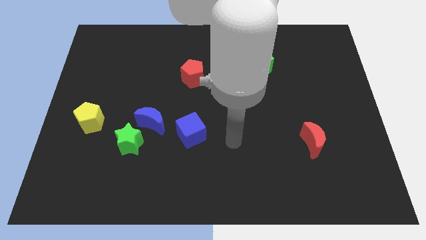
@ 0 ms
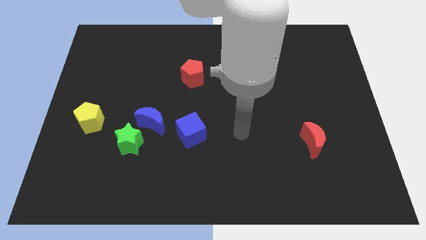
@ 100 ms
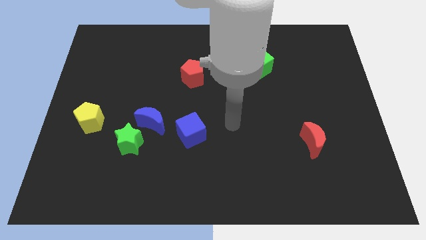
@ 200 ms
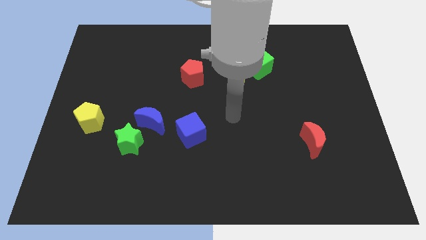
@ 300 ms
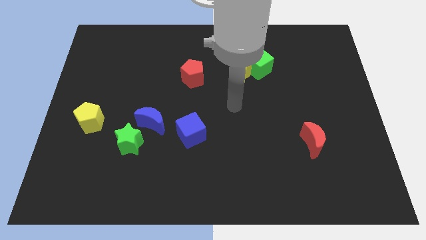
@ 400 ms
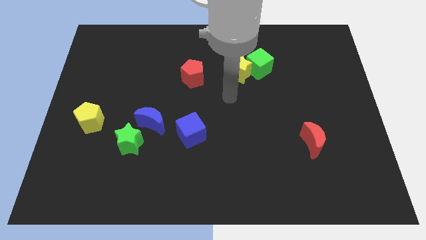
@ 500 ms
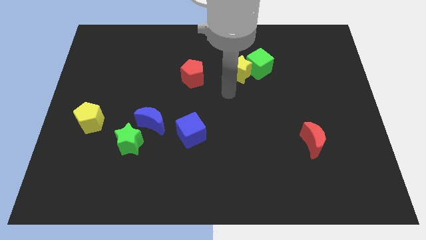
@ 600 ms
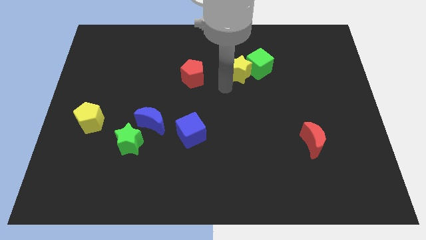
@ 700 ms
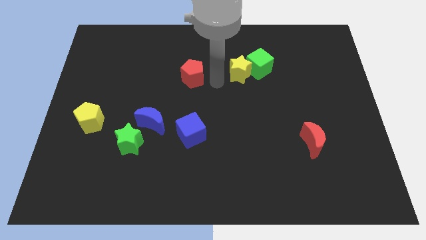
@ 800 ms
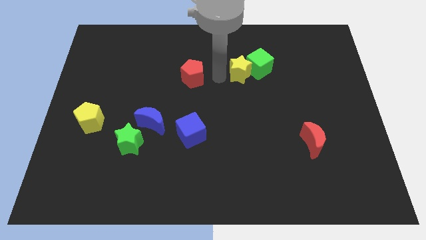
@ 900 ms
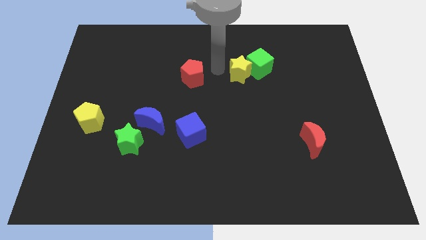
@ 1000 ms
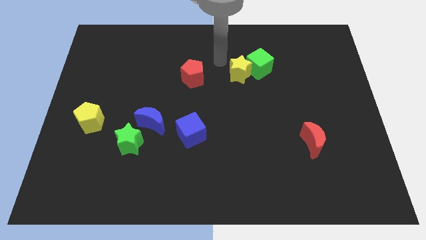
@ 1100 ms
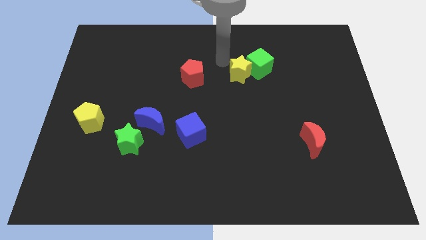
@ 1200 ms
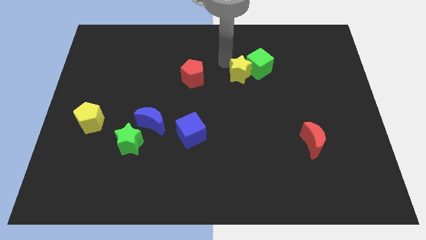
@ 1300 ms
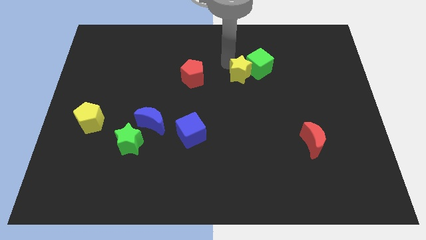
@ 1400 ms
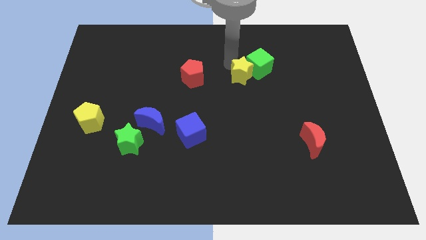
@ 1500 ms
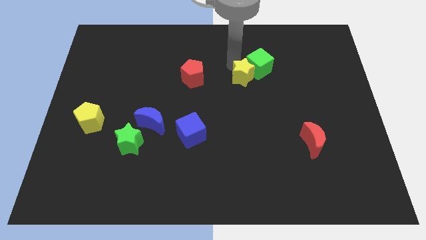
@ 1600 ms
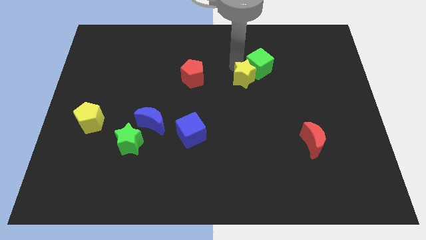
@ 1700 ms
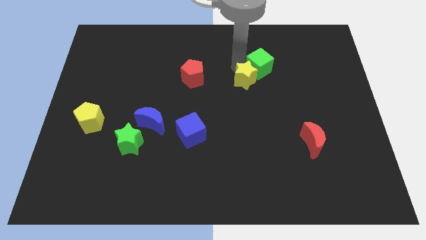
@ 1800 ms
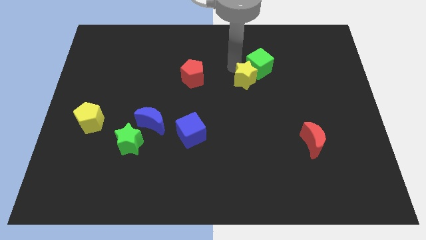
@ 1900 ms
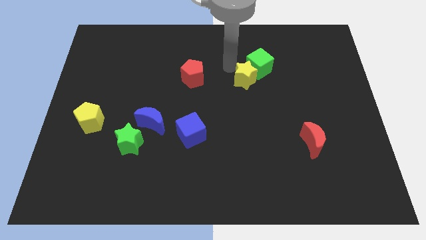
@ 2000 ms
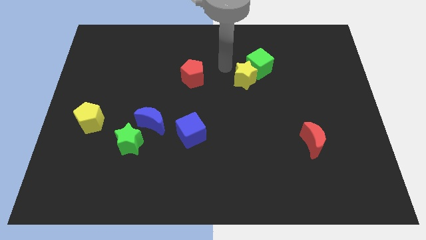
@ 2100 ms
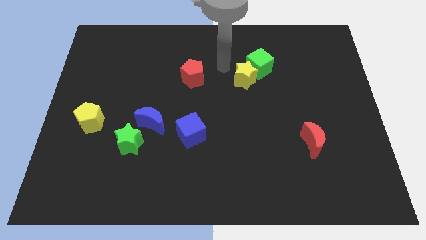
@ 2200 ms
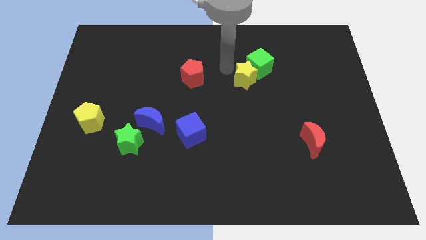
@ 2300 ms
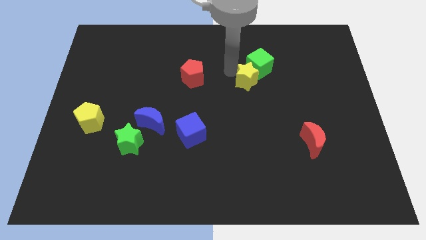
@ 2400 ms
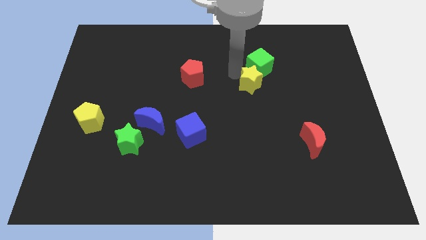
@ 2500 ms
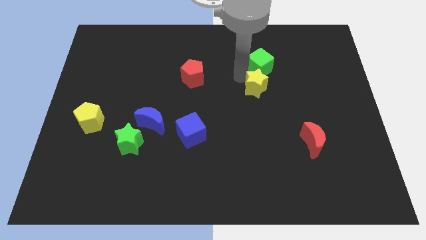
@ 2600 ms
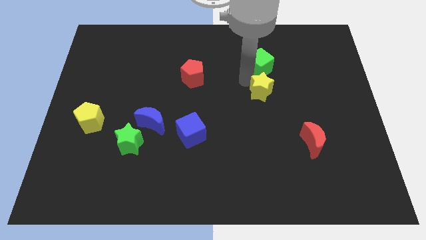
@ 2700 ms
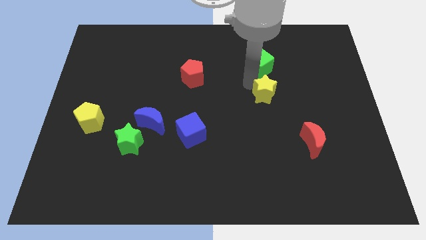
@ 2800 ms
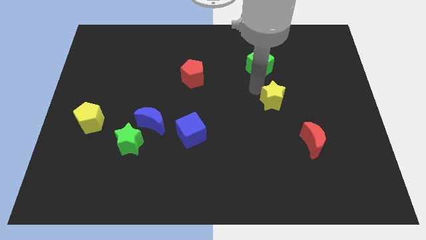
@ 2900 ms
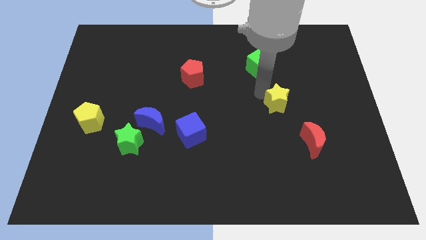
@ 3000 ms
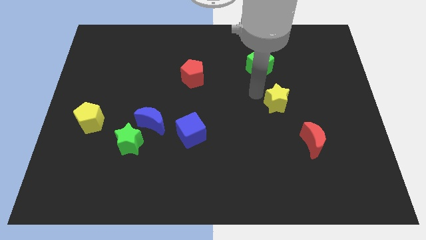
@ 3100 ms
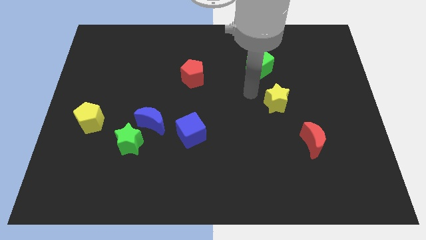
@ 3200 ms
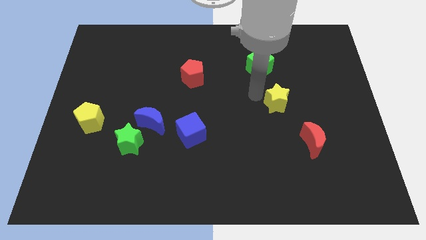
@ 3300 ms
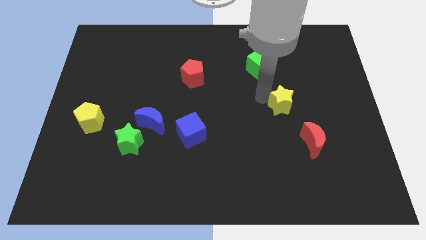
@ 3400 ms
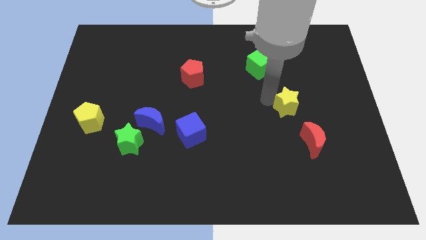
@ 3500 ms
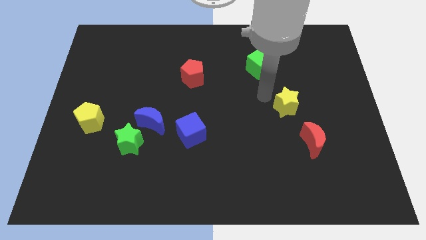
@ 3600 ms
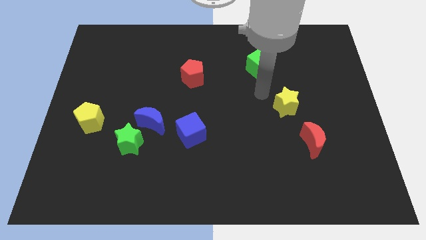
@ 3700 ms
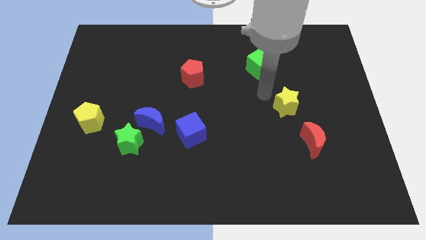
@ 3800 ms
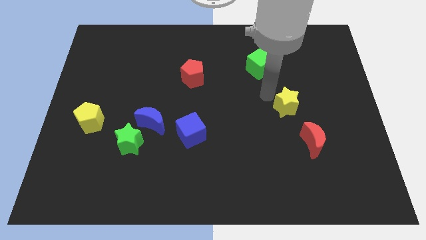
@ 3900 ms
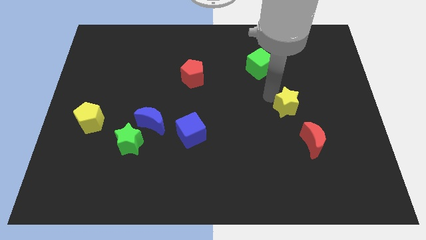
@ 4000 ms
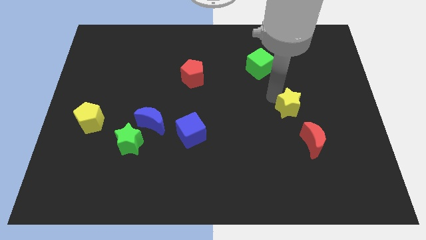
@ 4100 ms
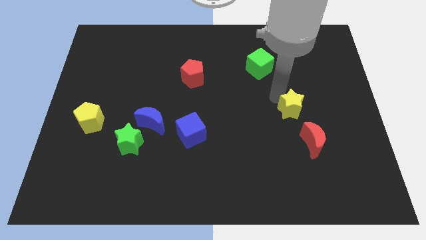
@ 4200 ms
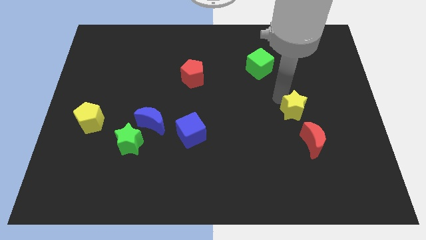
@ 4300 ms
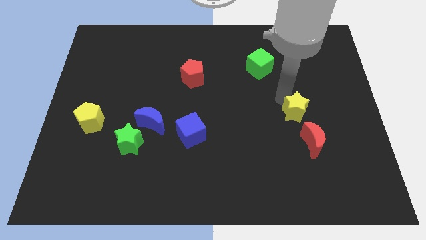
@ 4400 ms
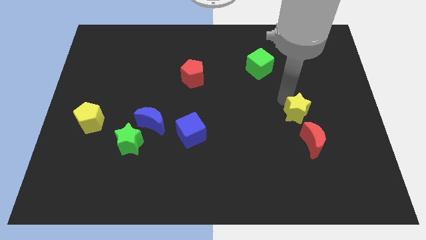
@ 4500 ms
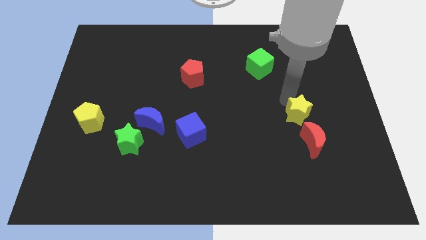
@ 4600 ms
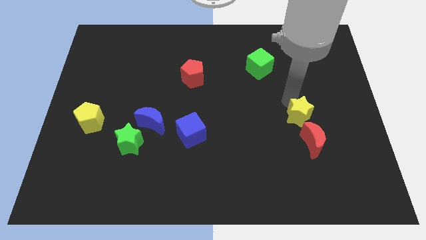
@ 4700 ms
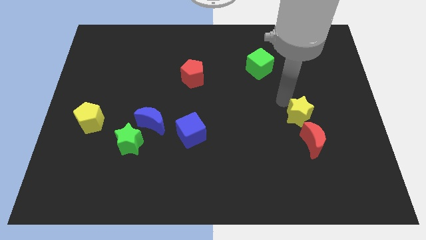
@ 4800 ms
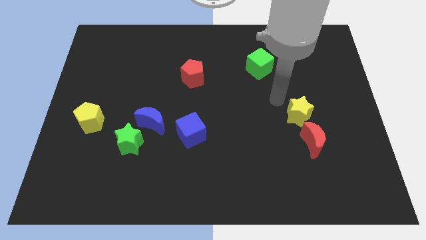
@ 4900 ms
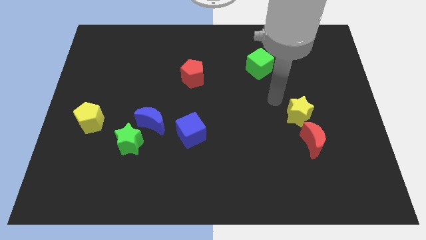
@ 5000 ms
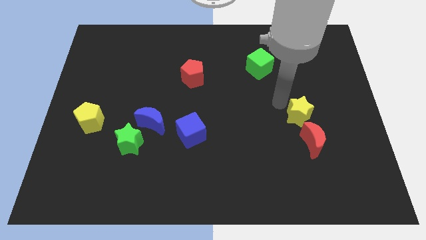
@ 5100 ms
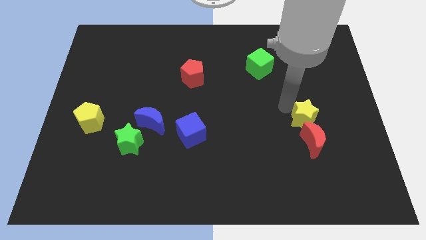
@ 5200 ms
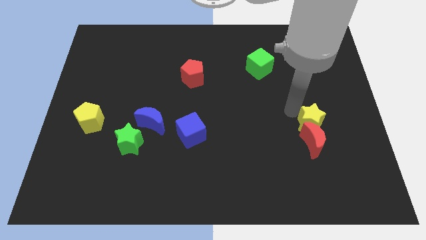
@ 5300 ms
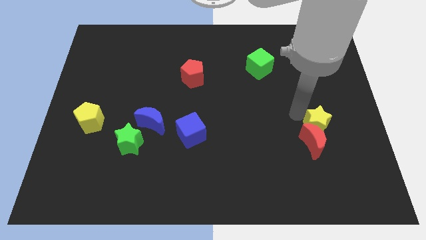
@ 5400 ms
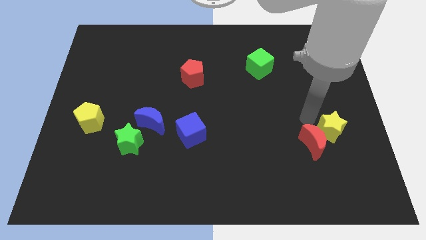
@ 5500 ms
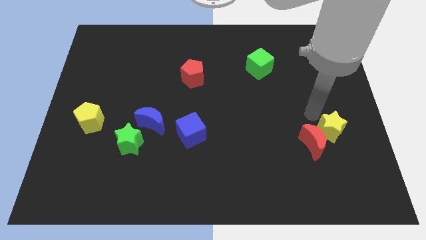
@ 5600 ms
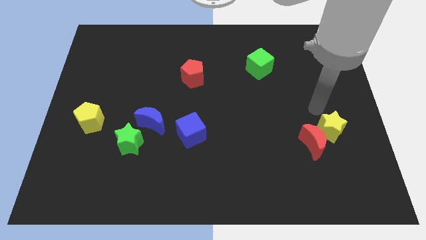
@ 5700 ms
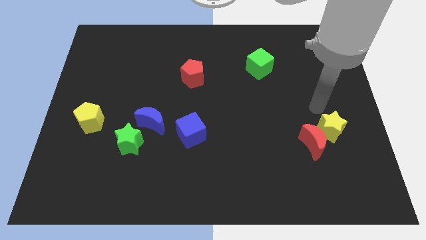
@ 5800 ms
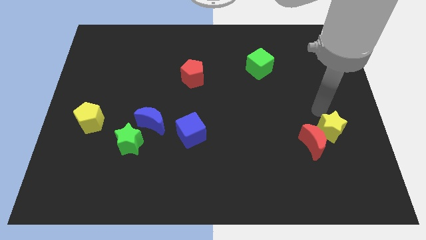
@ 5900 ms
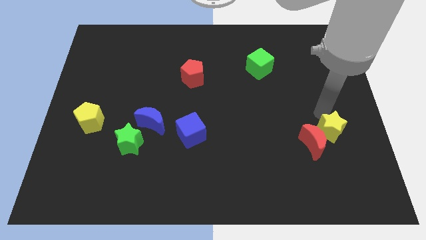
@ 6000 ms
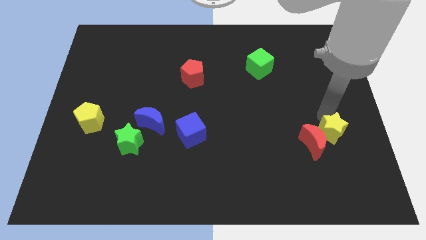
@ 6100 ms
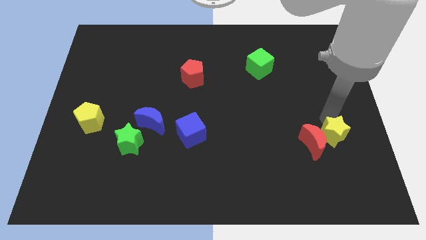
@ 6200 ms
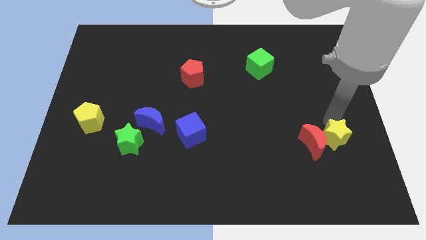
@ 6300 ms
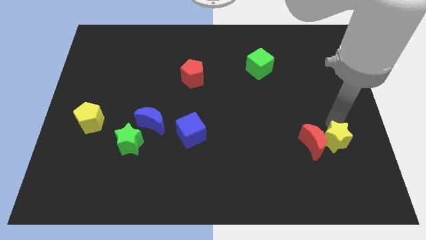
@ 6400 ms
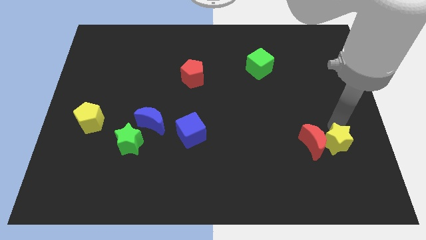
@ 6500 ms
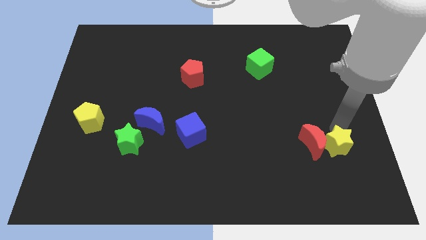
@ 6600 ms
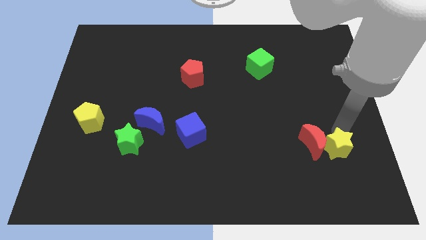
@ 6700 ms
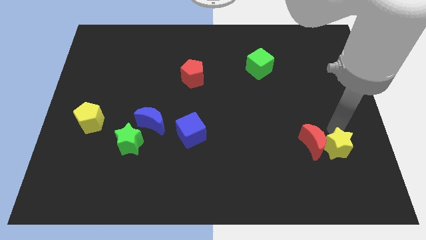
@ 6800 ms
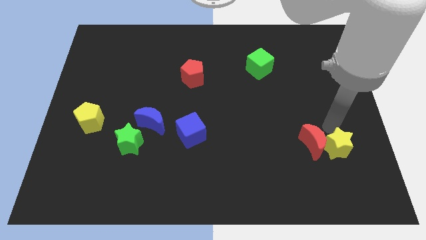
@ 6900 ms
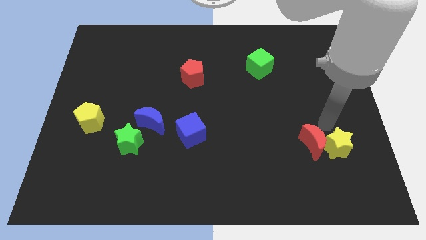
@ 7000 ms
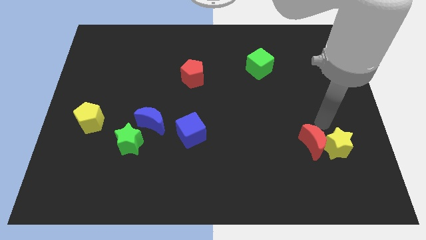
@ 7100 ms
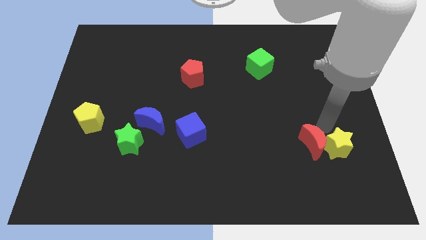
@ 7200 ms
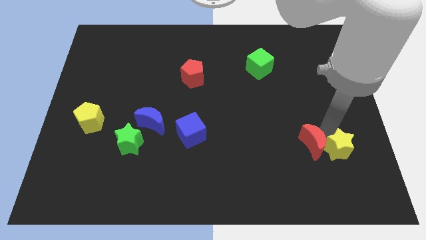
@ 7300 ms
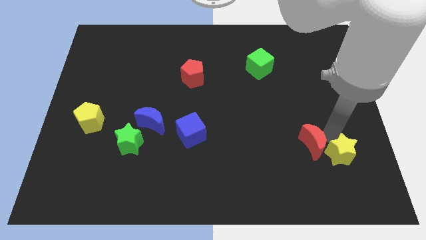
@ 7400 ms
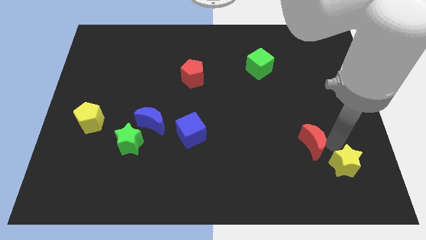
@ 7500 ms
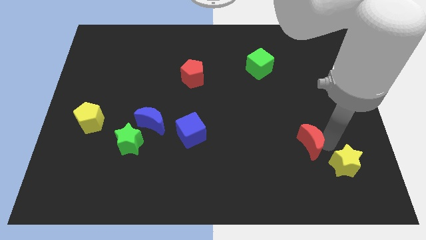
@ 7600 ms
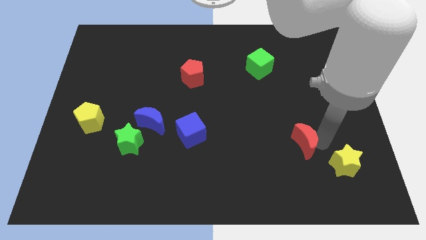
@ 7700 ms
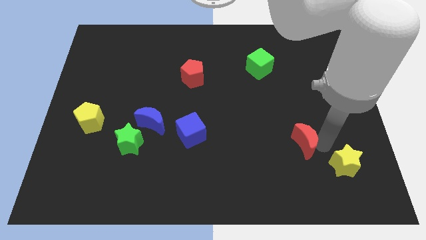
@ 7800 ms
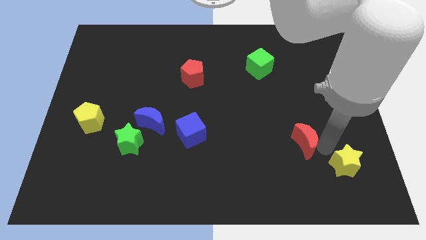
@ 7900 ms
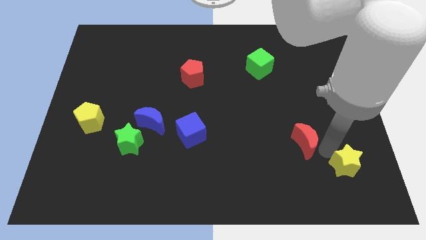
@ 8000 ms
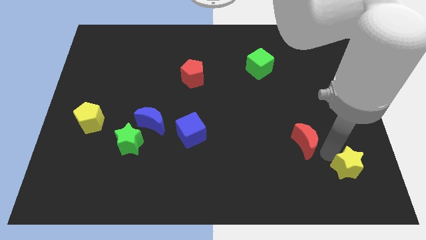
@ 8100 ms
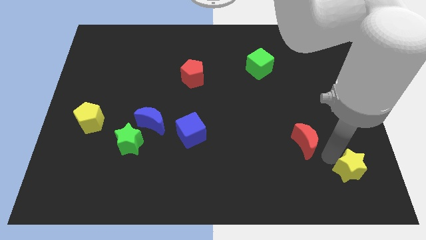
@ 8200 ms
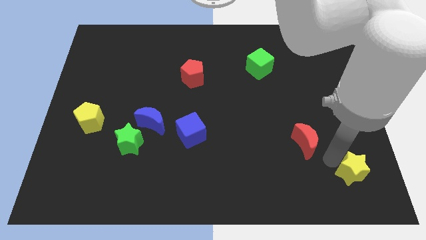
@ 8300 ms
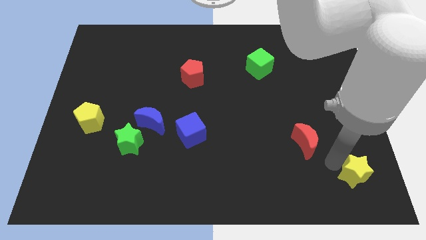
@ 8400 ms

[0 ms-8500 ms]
move the yellow star to the bottom right
